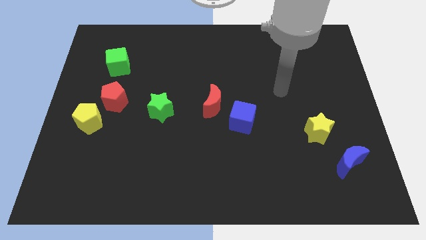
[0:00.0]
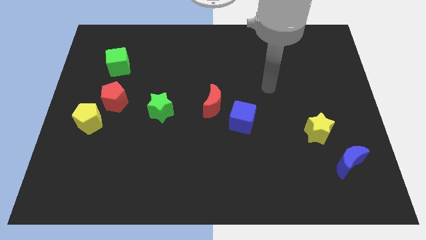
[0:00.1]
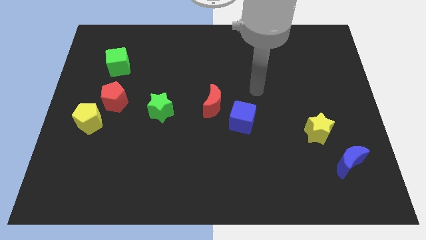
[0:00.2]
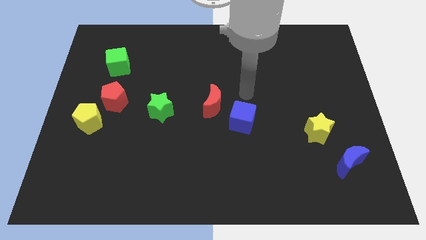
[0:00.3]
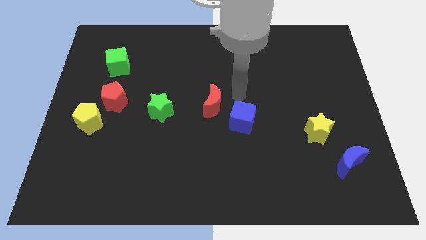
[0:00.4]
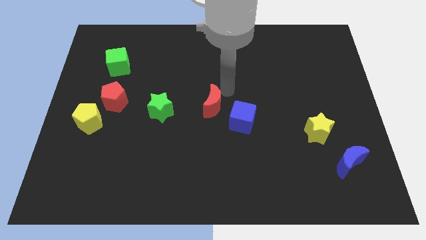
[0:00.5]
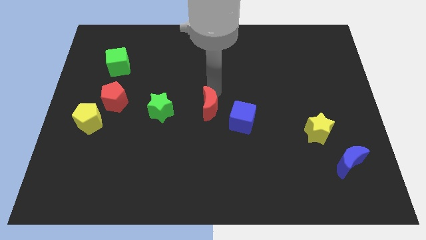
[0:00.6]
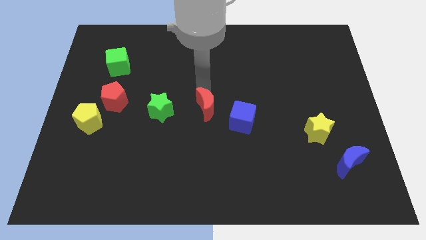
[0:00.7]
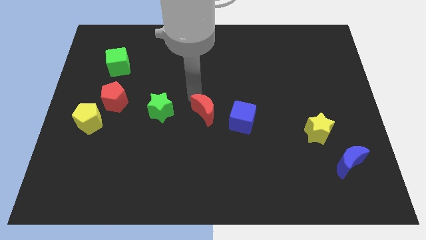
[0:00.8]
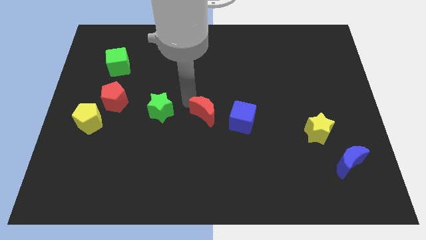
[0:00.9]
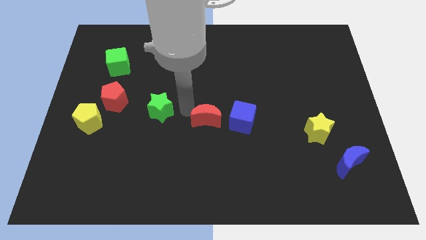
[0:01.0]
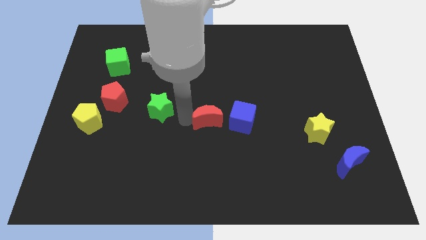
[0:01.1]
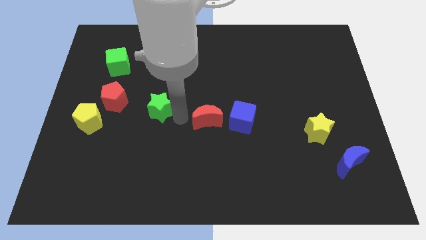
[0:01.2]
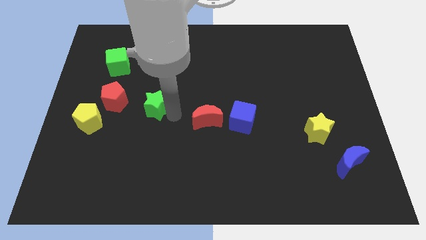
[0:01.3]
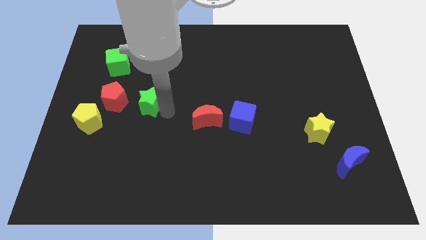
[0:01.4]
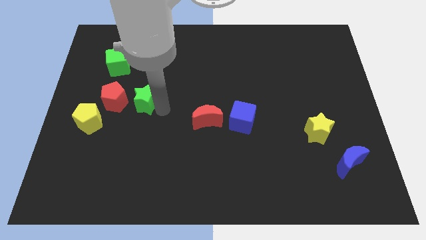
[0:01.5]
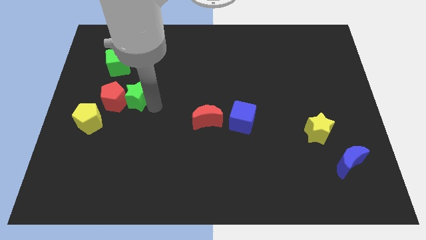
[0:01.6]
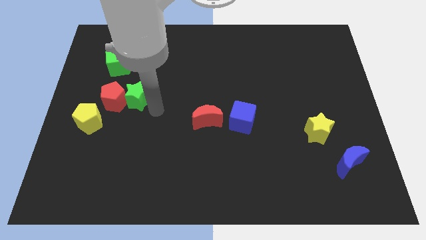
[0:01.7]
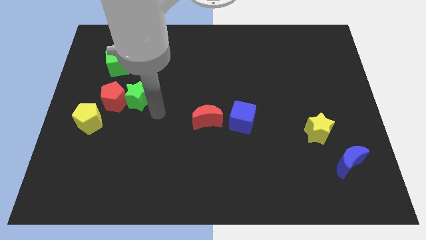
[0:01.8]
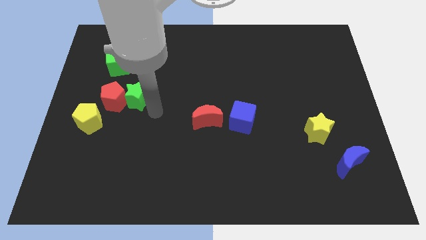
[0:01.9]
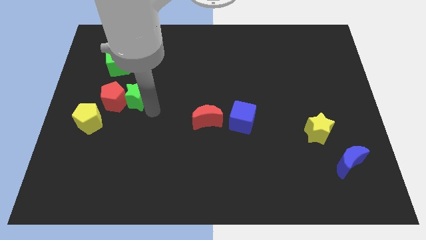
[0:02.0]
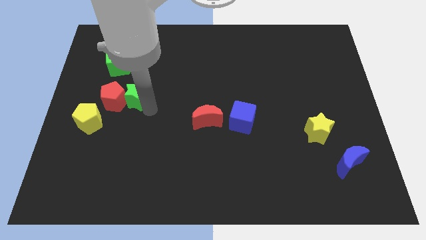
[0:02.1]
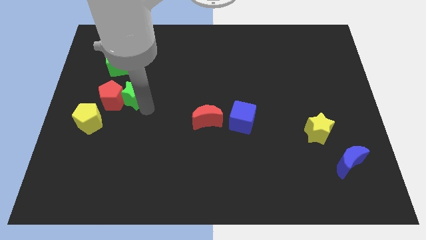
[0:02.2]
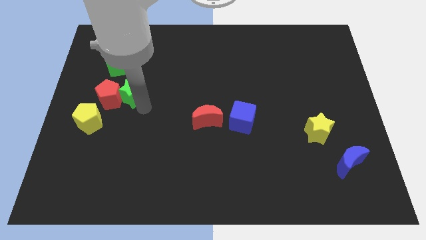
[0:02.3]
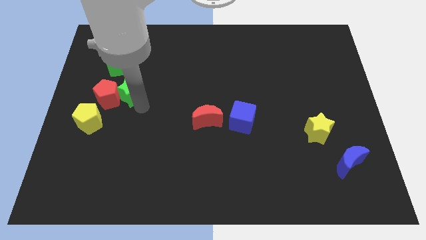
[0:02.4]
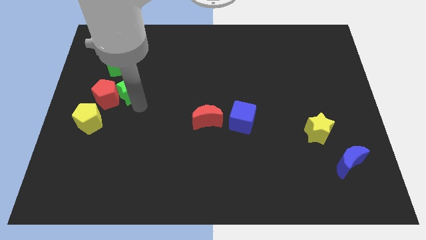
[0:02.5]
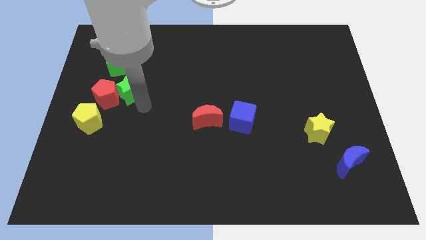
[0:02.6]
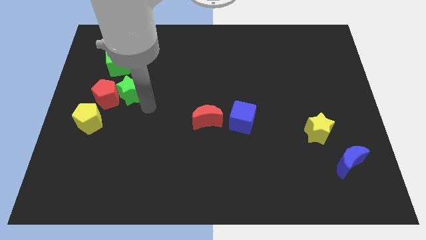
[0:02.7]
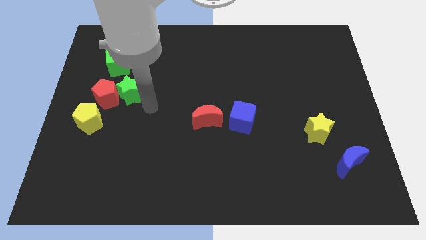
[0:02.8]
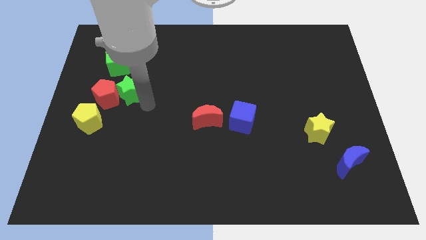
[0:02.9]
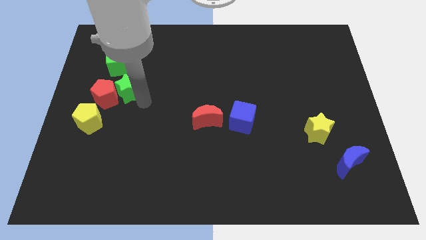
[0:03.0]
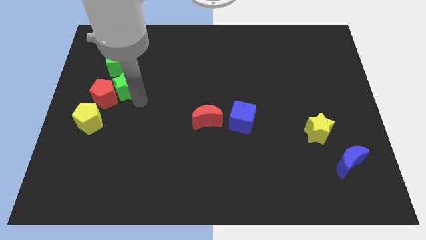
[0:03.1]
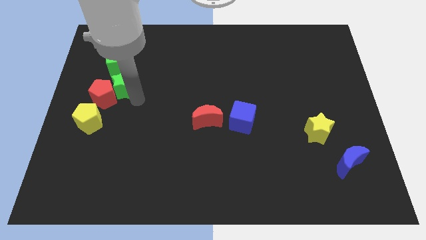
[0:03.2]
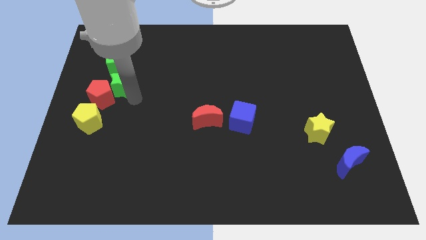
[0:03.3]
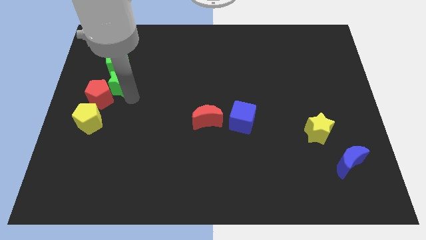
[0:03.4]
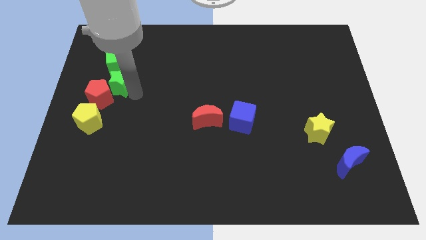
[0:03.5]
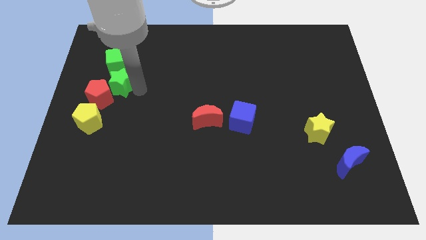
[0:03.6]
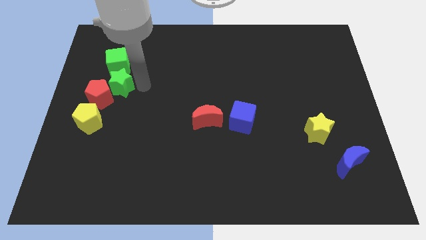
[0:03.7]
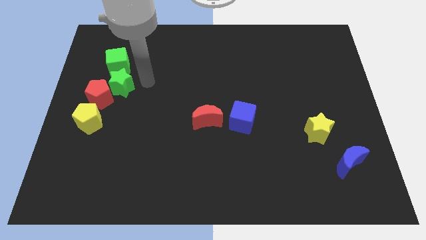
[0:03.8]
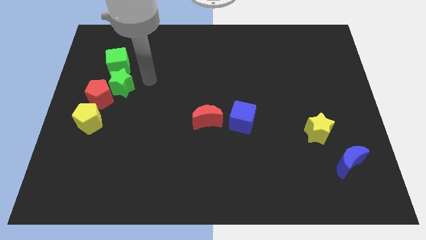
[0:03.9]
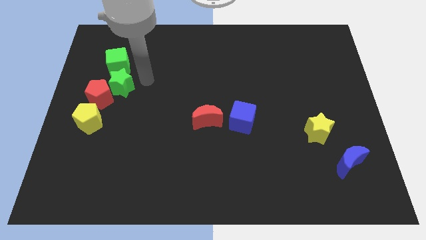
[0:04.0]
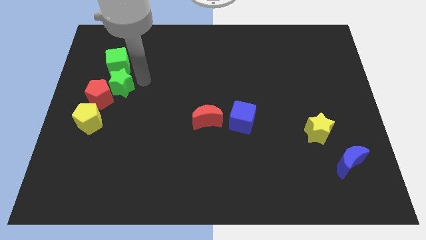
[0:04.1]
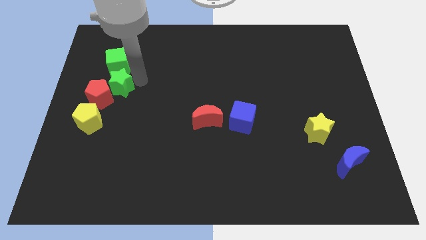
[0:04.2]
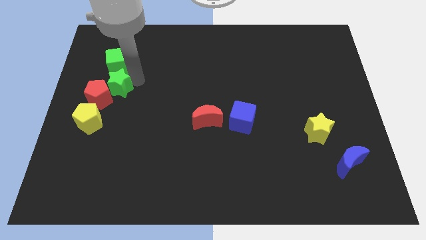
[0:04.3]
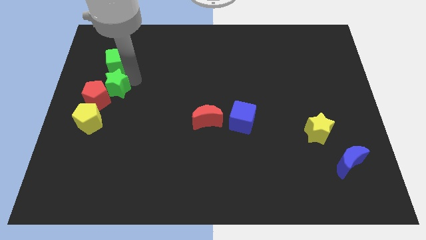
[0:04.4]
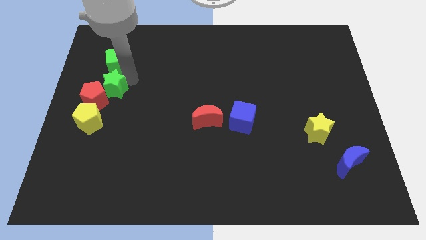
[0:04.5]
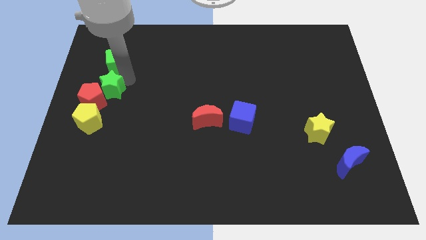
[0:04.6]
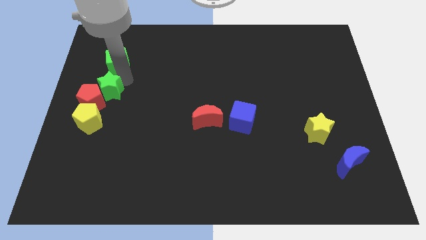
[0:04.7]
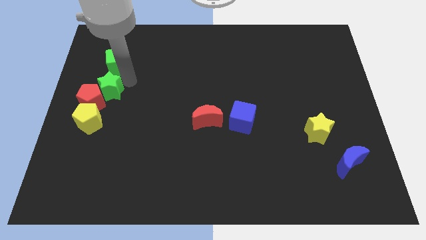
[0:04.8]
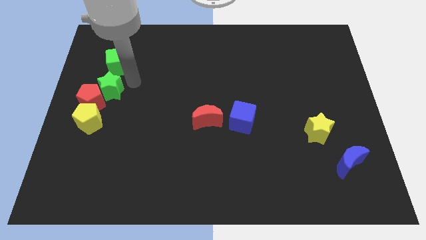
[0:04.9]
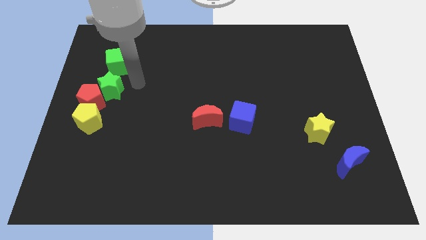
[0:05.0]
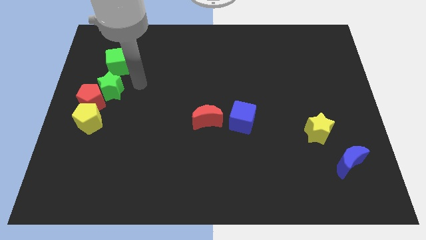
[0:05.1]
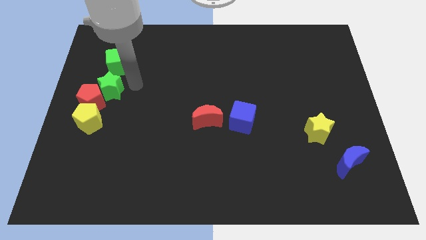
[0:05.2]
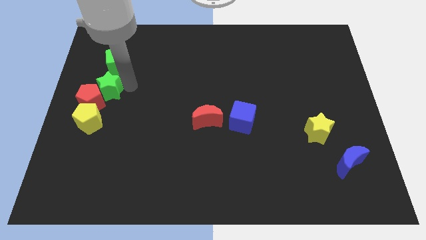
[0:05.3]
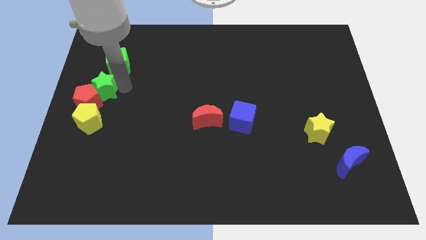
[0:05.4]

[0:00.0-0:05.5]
move the green star to the left side of the board
